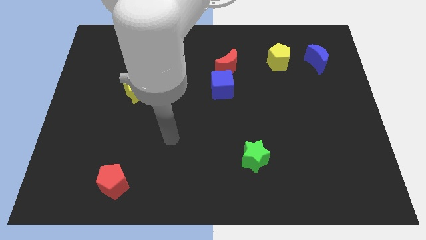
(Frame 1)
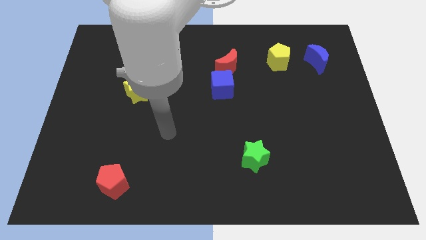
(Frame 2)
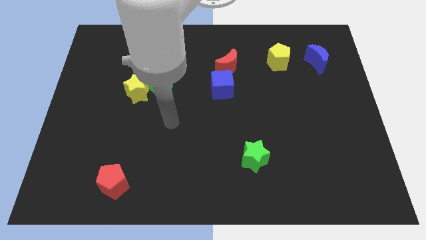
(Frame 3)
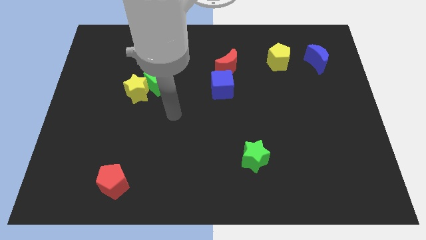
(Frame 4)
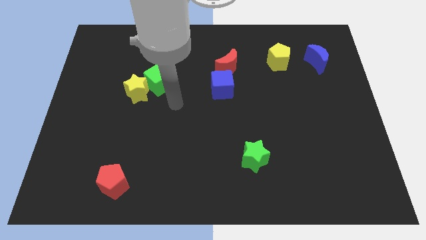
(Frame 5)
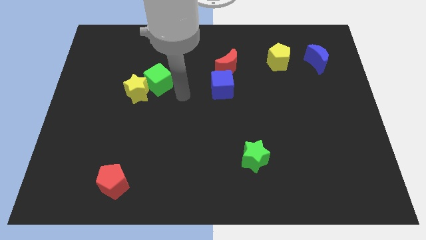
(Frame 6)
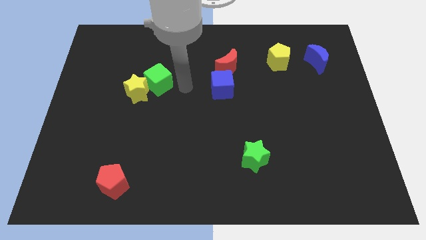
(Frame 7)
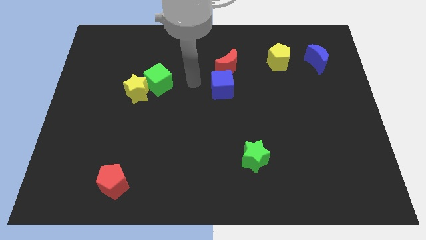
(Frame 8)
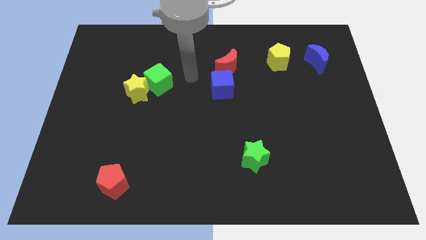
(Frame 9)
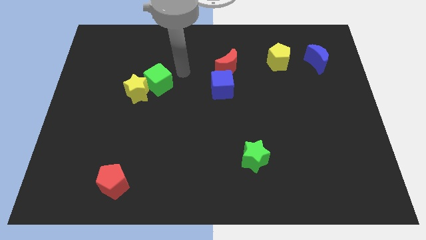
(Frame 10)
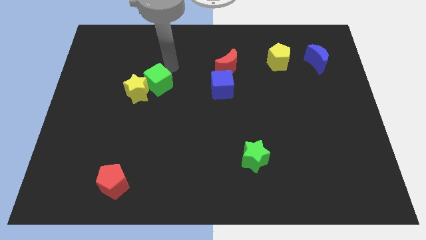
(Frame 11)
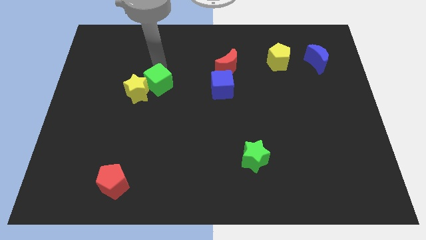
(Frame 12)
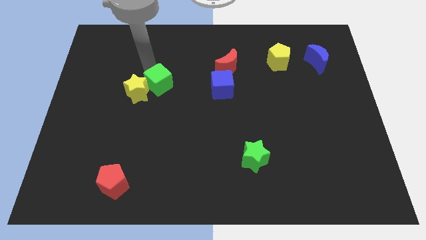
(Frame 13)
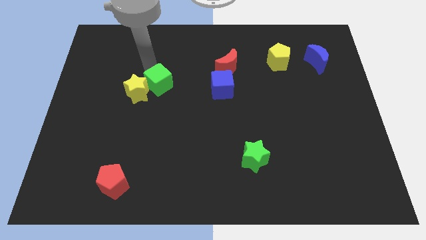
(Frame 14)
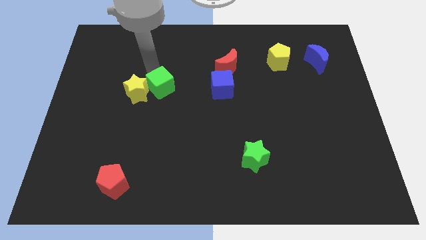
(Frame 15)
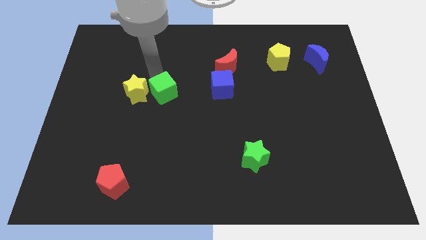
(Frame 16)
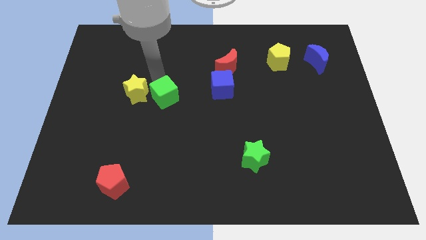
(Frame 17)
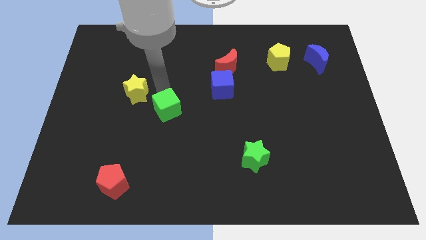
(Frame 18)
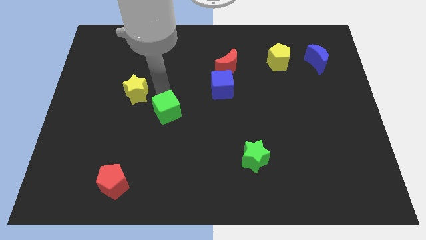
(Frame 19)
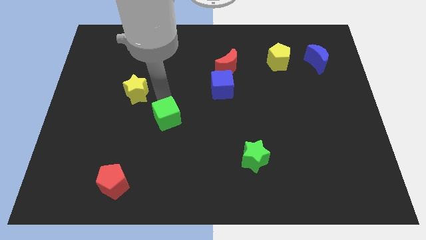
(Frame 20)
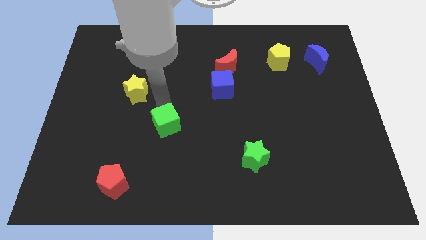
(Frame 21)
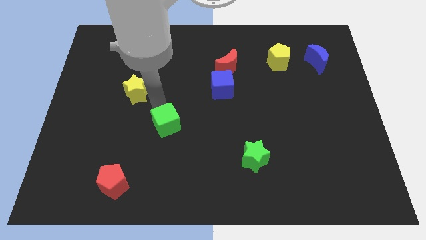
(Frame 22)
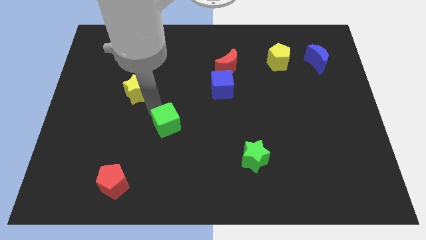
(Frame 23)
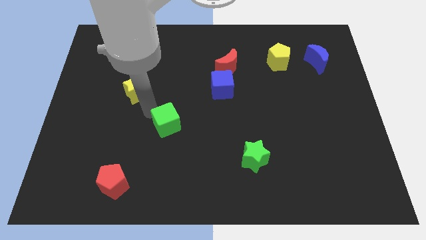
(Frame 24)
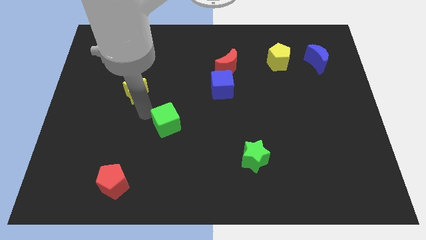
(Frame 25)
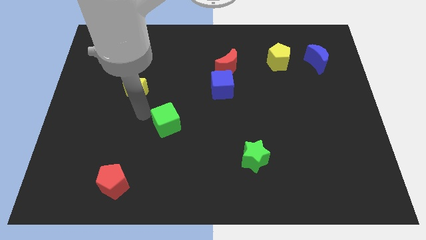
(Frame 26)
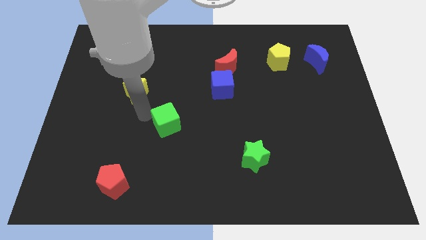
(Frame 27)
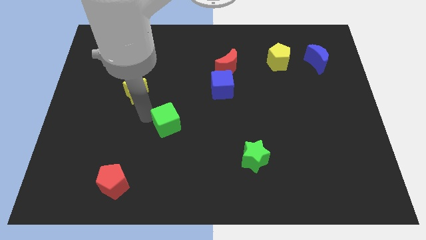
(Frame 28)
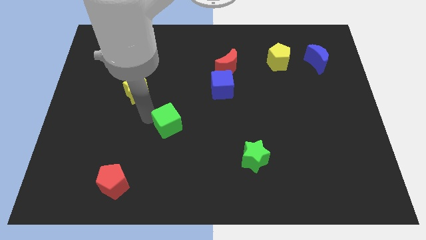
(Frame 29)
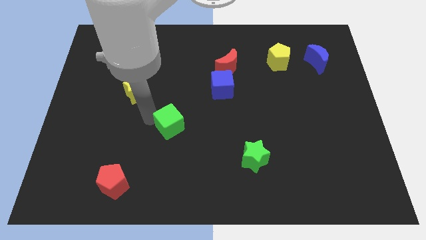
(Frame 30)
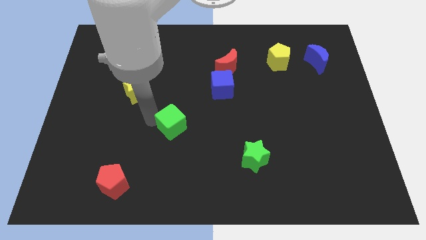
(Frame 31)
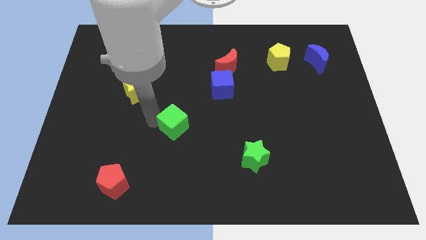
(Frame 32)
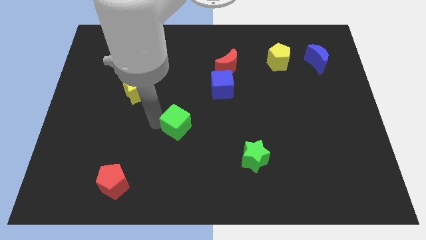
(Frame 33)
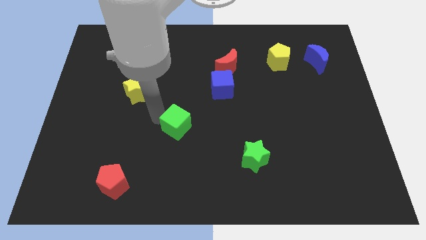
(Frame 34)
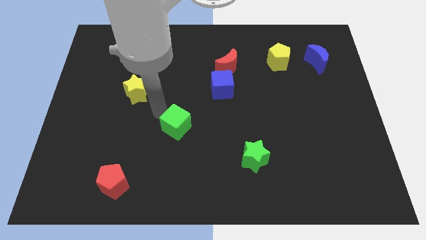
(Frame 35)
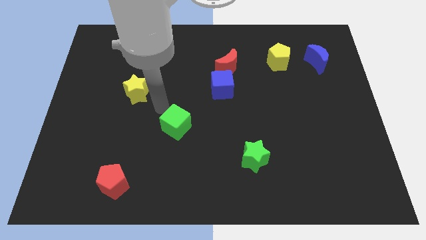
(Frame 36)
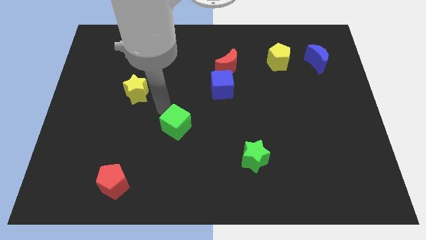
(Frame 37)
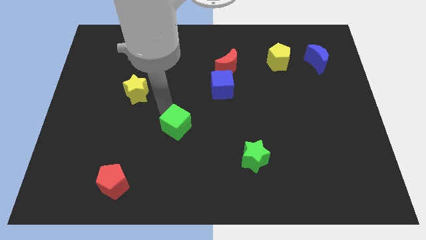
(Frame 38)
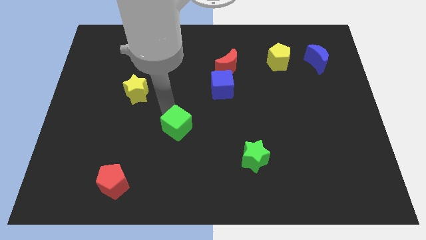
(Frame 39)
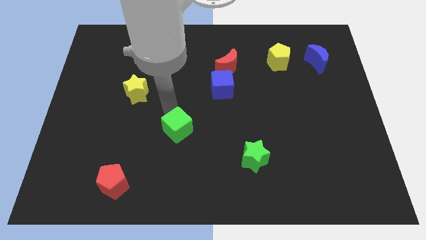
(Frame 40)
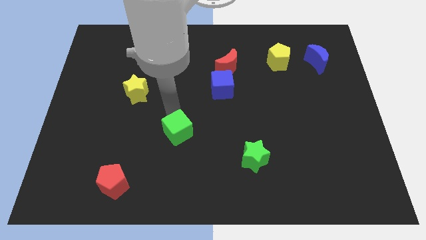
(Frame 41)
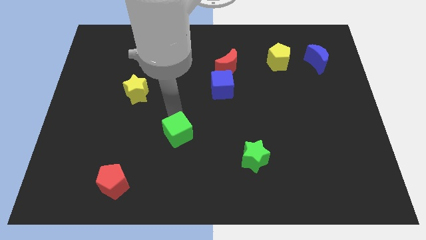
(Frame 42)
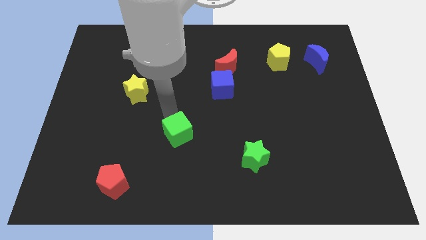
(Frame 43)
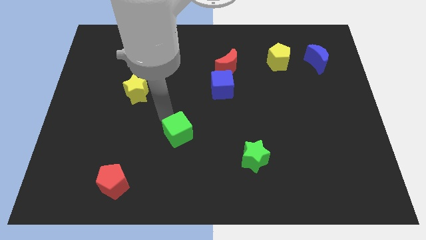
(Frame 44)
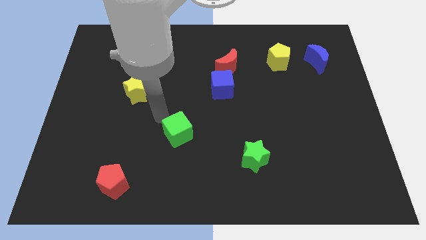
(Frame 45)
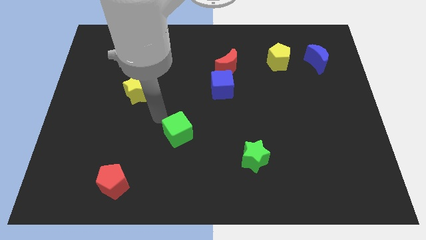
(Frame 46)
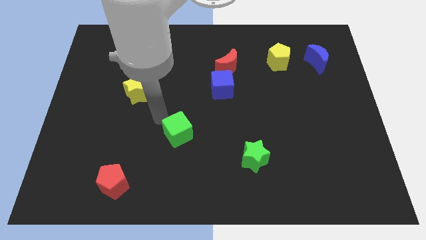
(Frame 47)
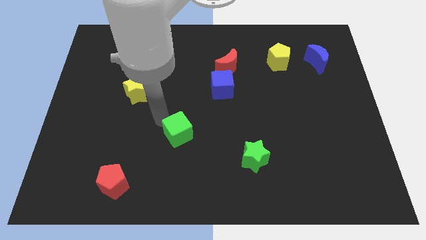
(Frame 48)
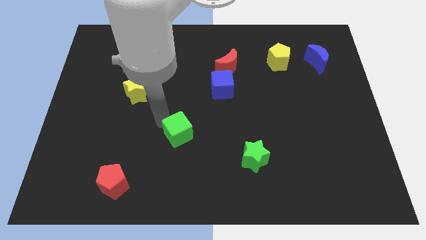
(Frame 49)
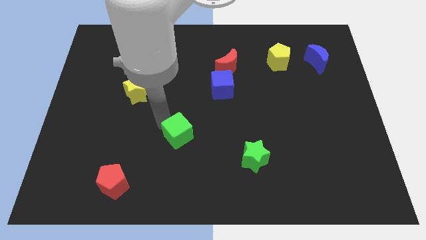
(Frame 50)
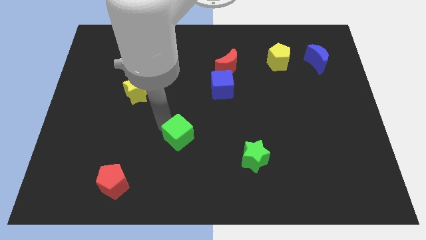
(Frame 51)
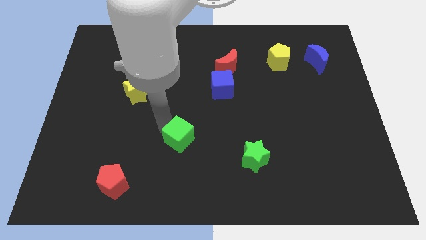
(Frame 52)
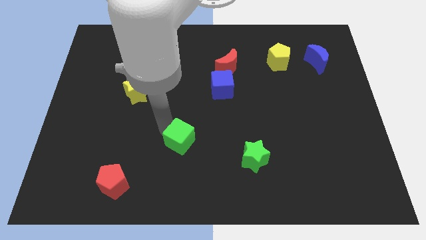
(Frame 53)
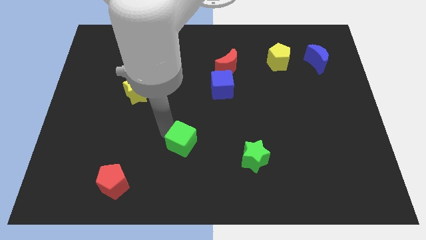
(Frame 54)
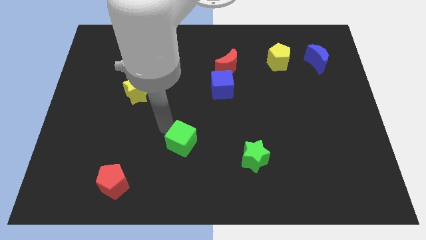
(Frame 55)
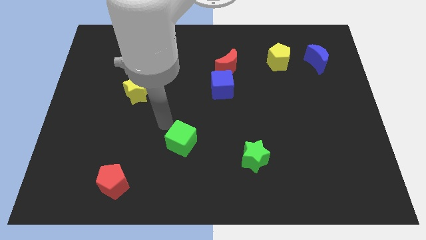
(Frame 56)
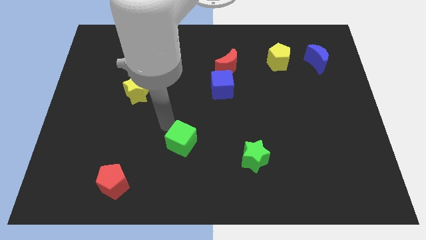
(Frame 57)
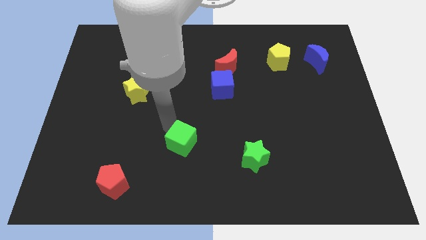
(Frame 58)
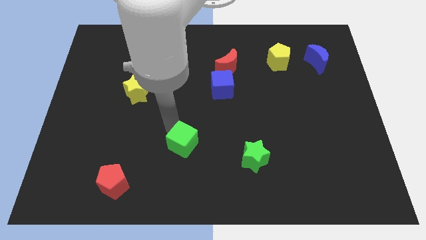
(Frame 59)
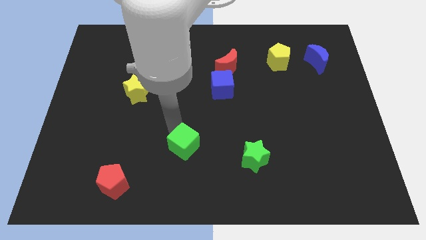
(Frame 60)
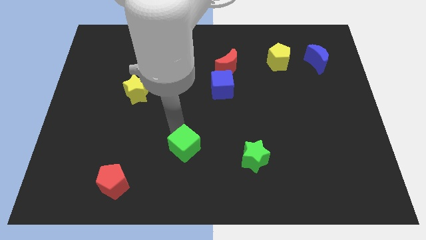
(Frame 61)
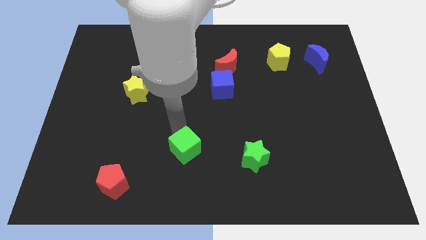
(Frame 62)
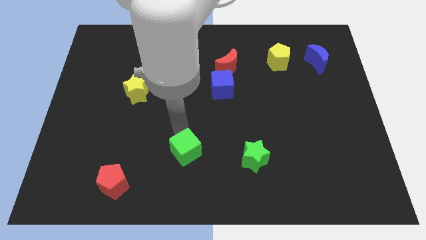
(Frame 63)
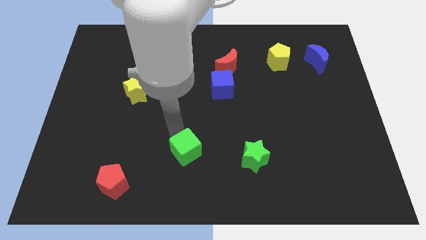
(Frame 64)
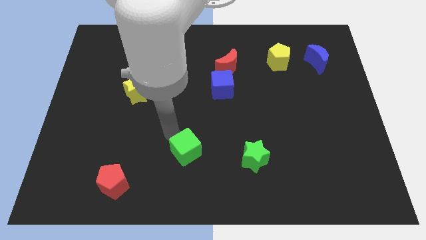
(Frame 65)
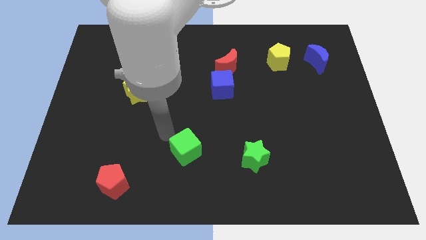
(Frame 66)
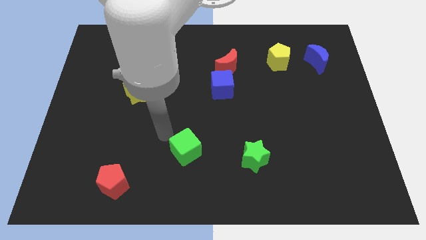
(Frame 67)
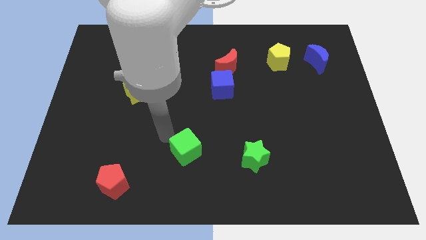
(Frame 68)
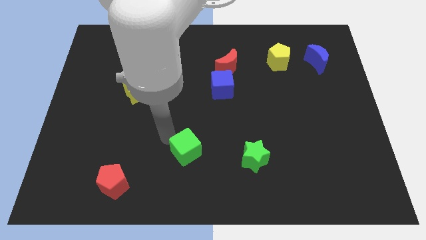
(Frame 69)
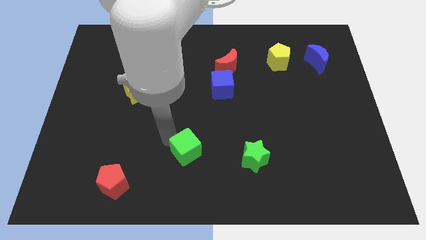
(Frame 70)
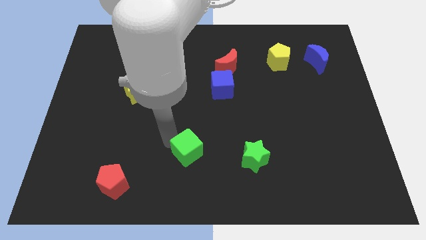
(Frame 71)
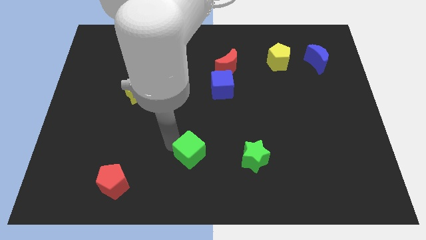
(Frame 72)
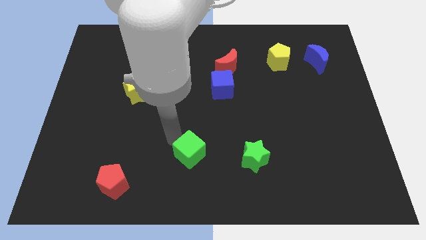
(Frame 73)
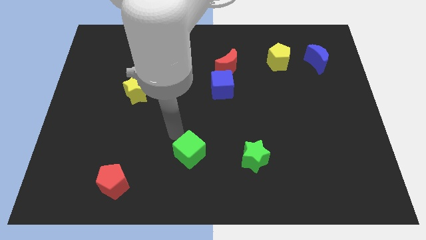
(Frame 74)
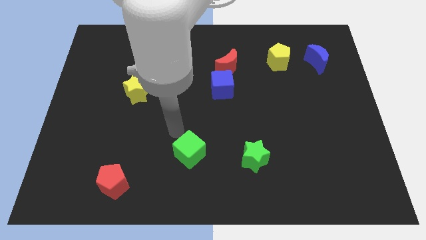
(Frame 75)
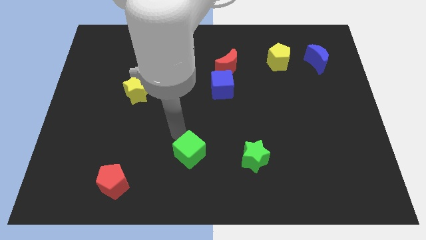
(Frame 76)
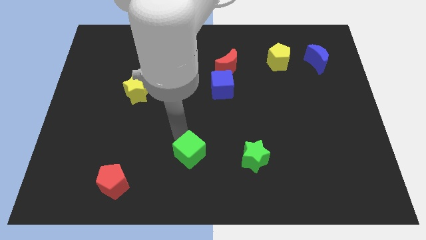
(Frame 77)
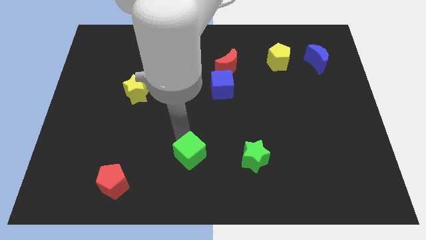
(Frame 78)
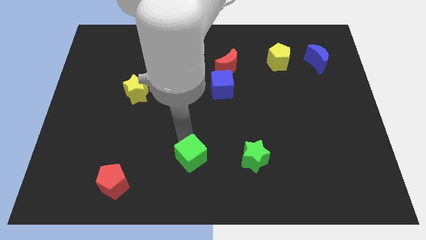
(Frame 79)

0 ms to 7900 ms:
slide the green cube to the bottom
